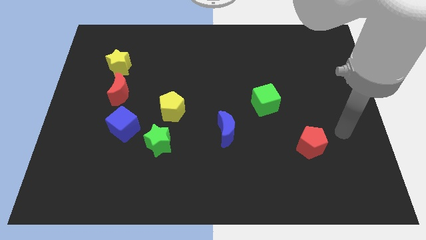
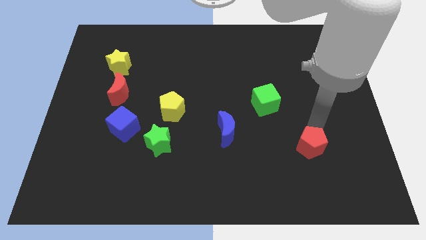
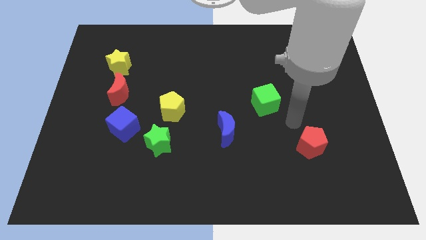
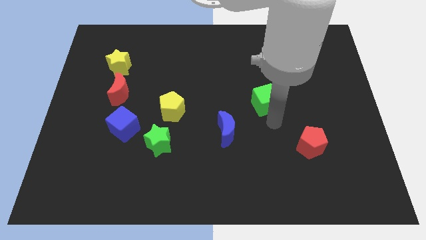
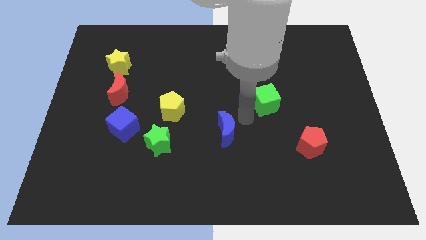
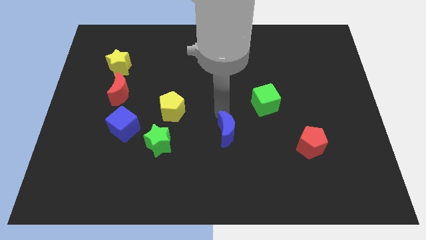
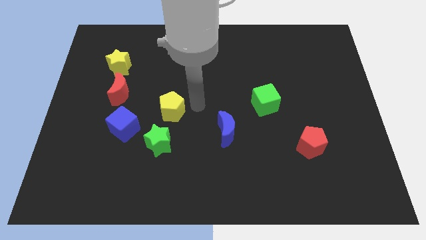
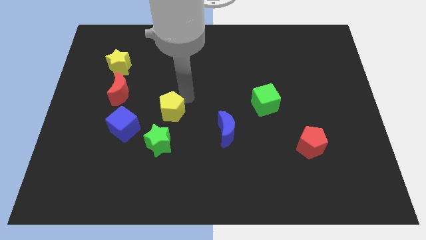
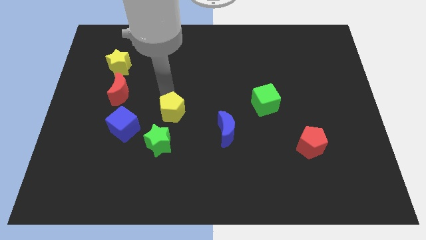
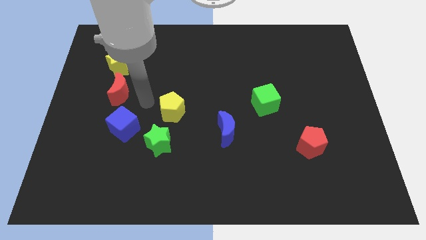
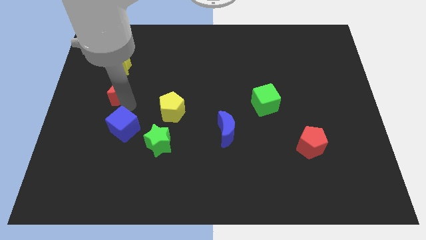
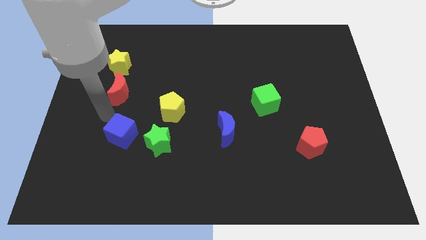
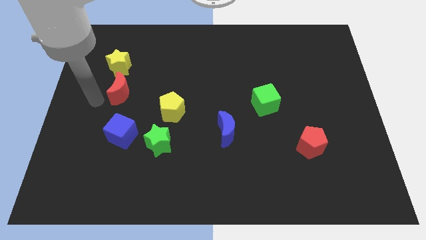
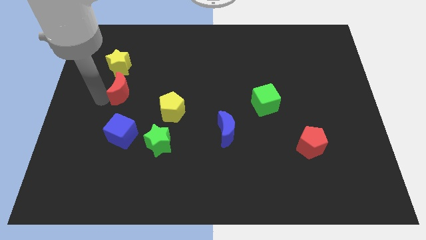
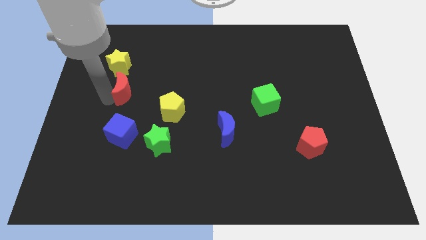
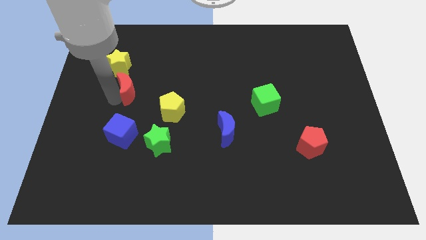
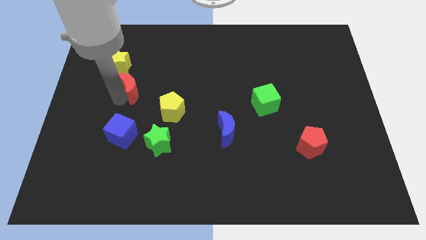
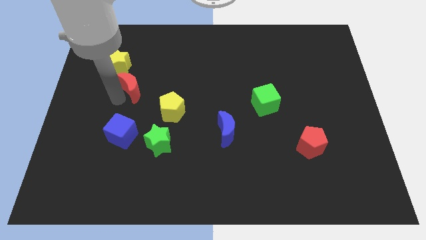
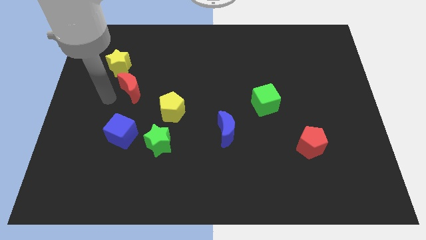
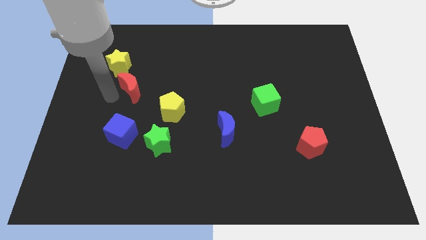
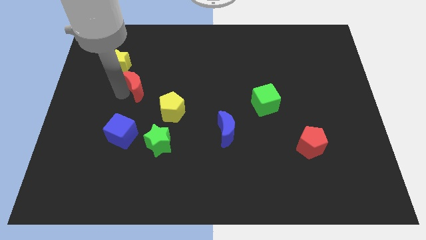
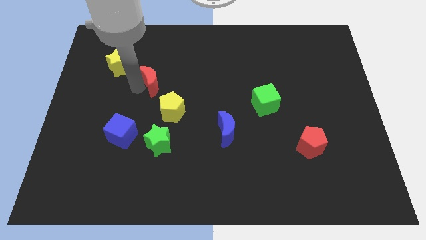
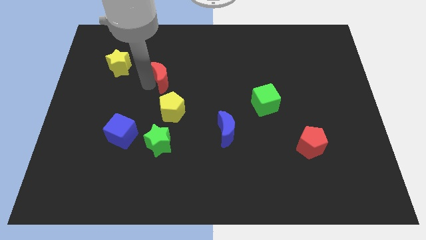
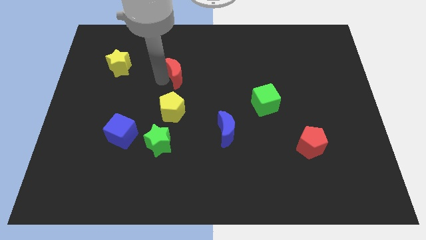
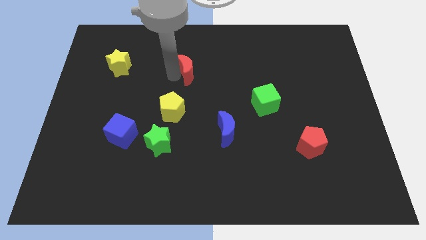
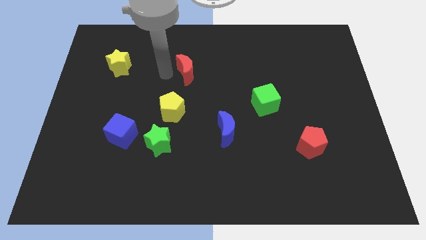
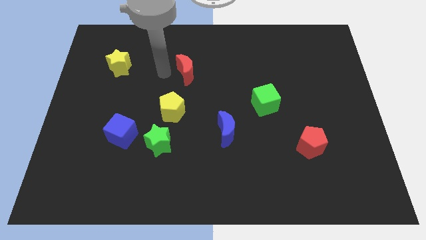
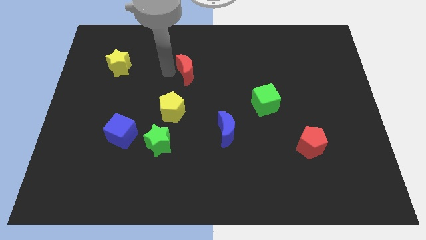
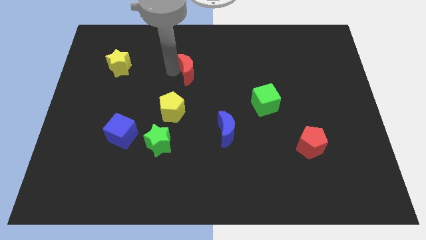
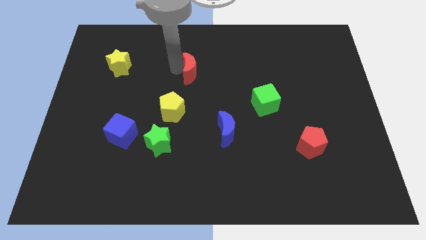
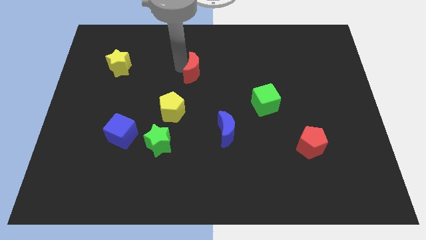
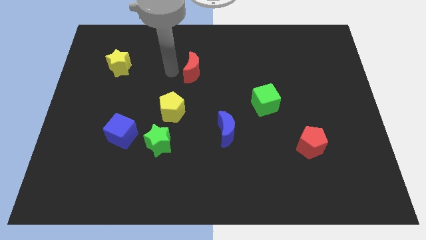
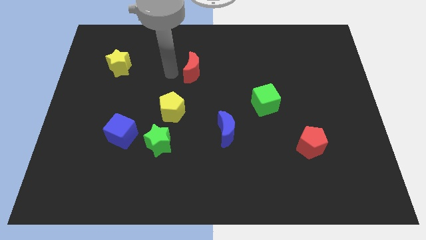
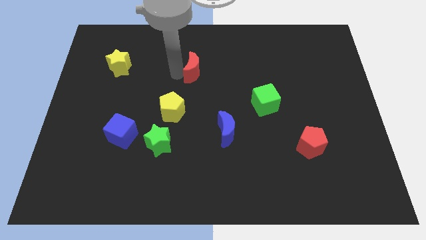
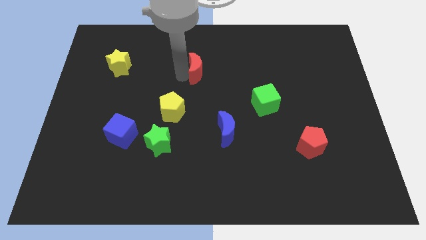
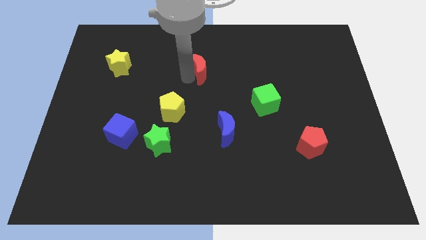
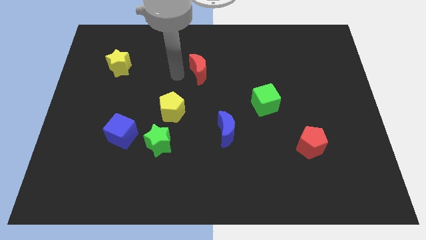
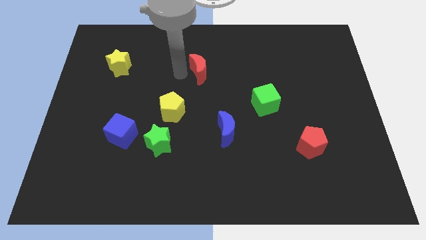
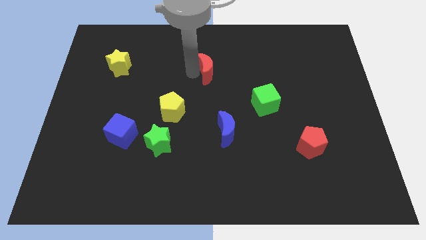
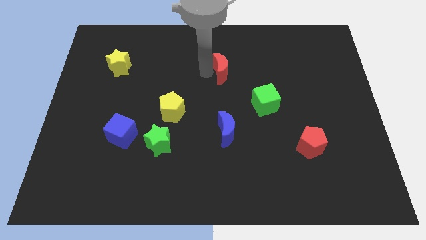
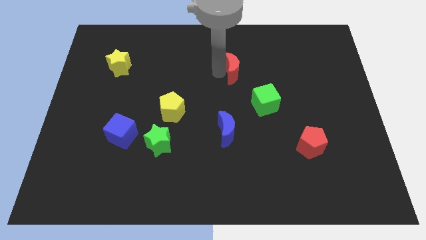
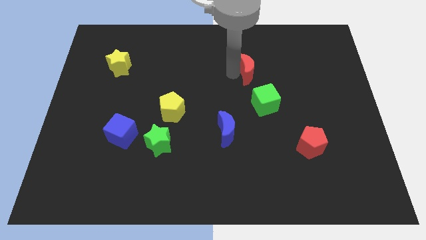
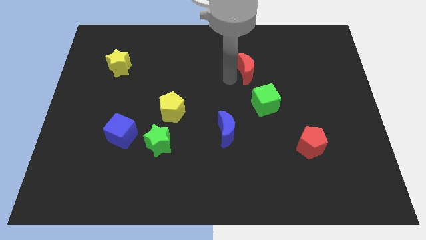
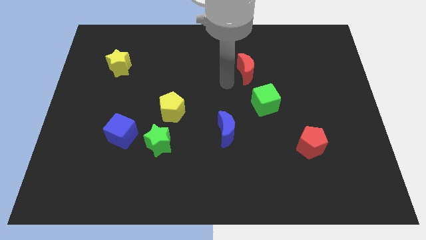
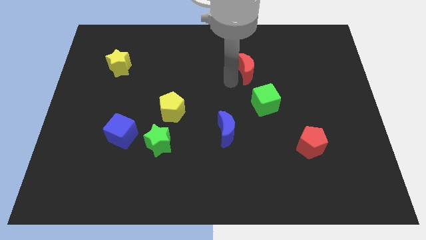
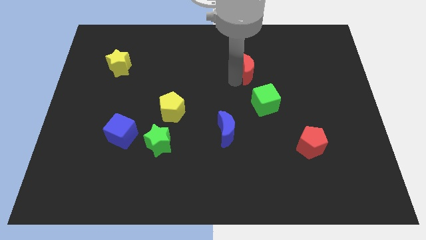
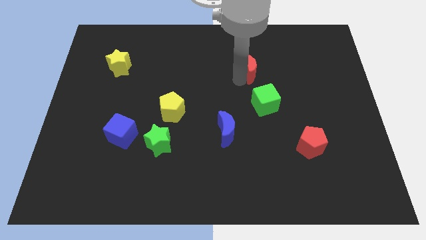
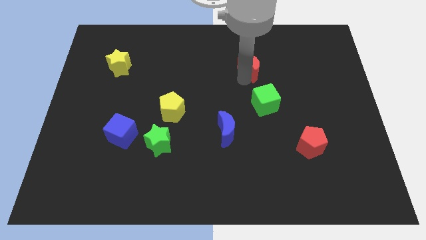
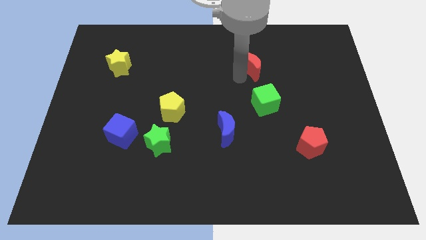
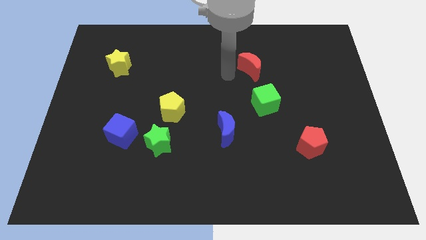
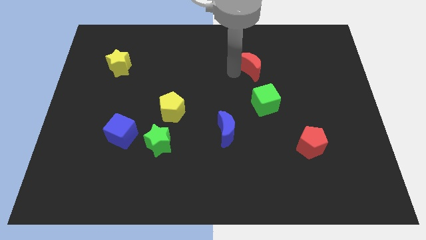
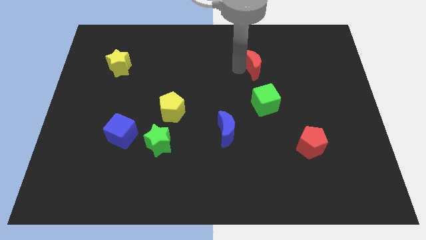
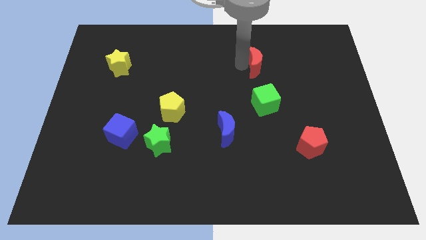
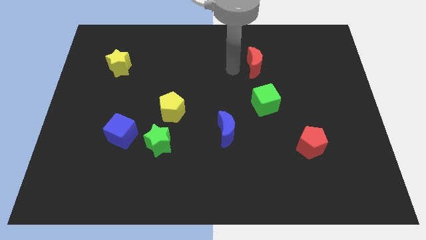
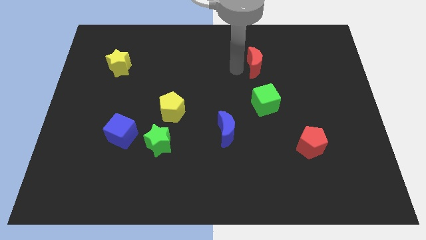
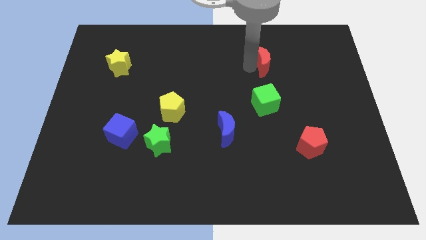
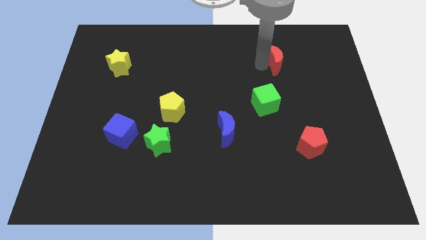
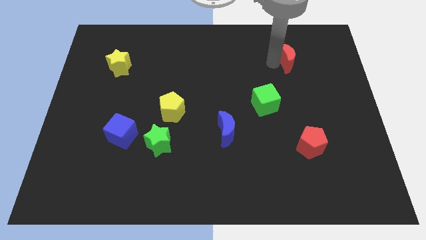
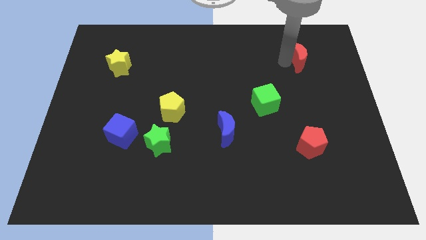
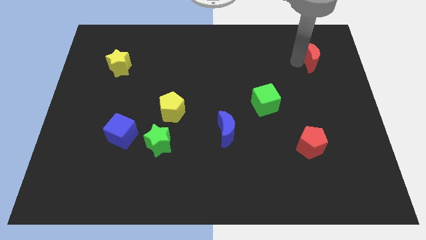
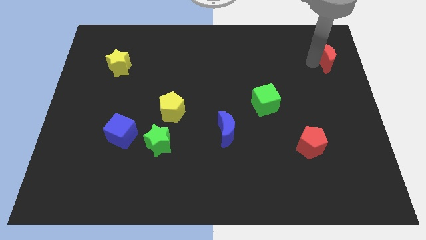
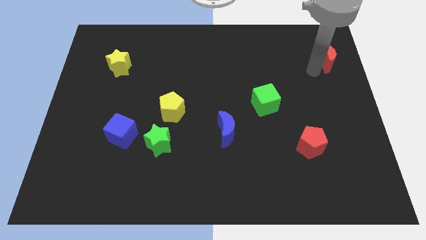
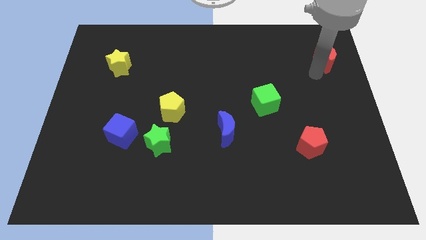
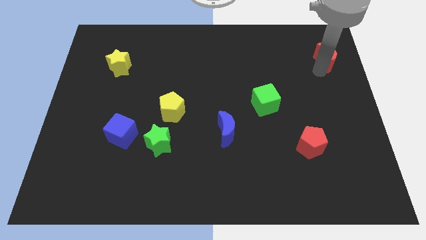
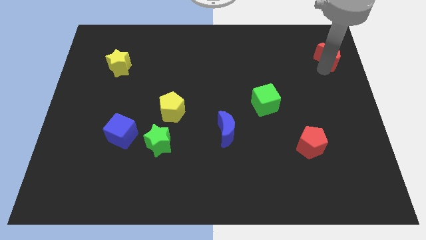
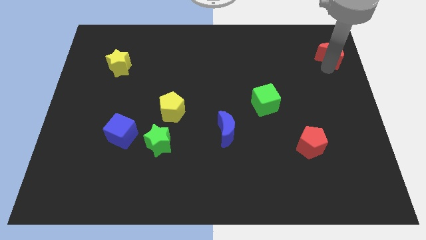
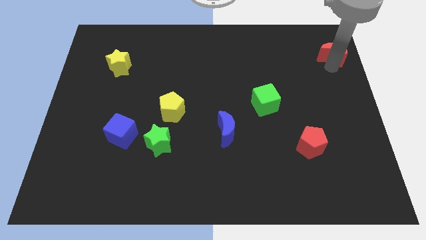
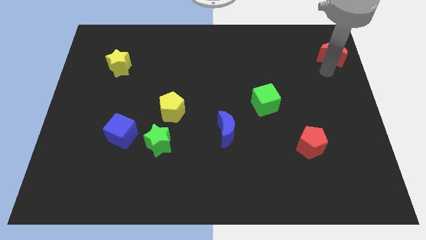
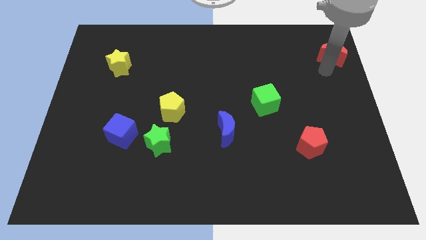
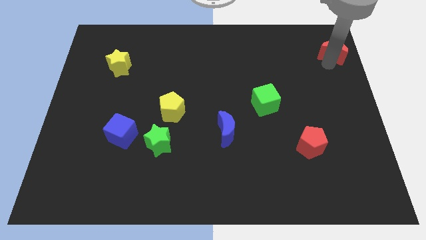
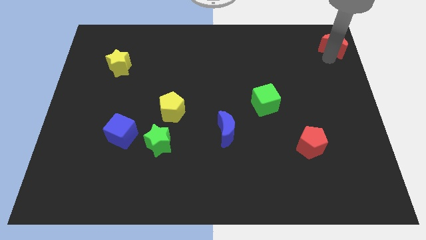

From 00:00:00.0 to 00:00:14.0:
slide the red moon to the upper right corner
